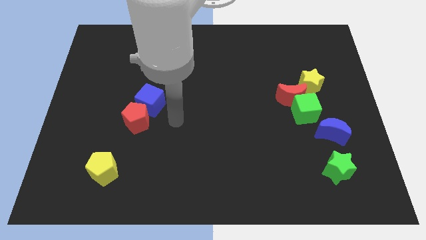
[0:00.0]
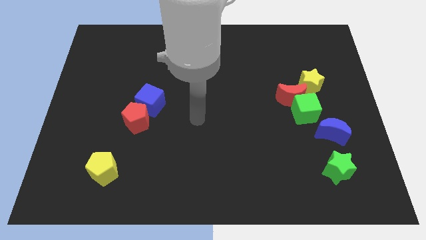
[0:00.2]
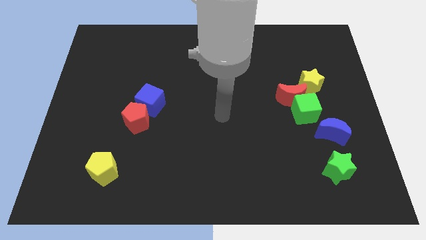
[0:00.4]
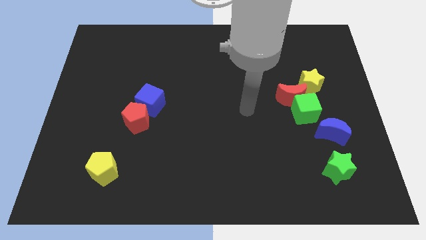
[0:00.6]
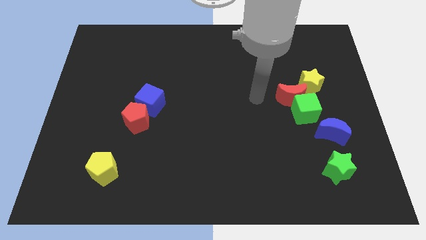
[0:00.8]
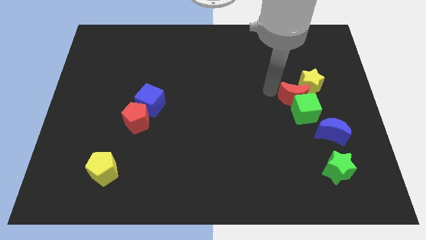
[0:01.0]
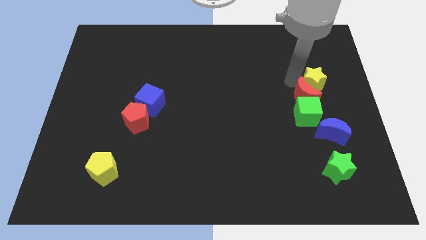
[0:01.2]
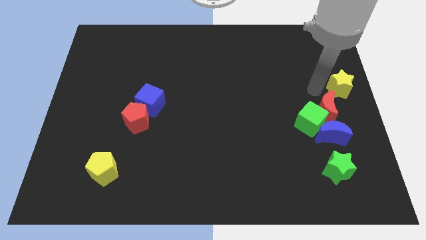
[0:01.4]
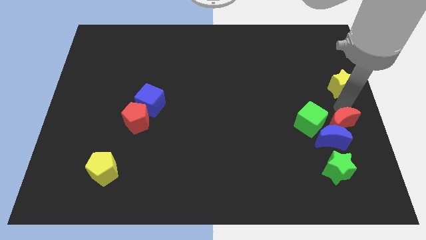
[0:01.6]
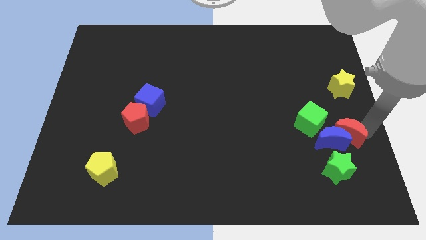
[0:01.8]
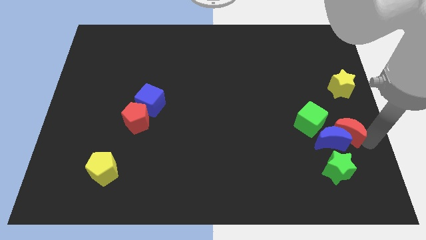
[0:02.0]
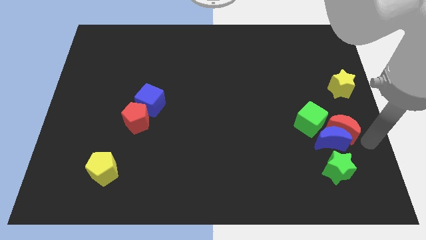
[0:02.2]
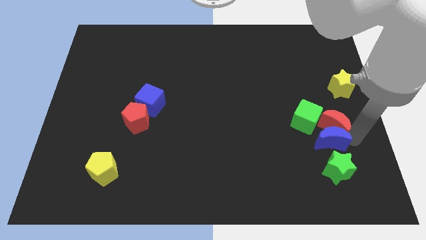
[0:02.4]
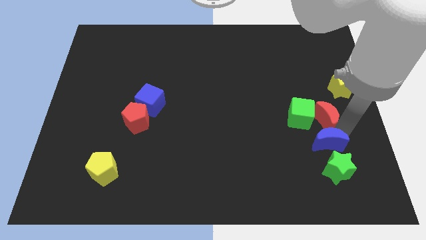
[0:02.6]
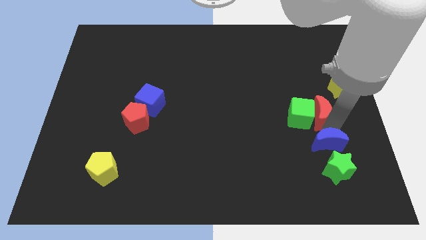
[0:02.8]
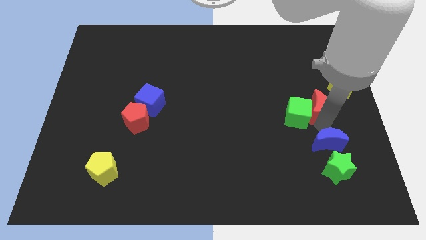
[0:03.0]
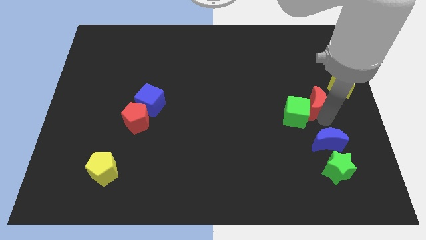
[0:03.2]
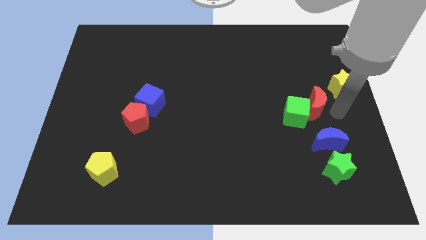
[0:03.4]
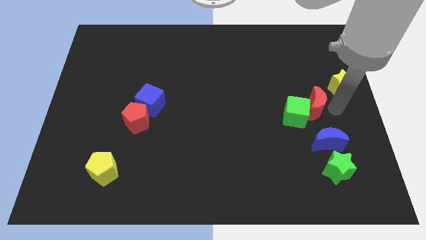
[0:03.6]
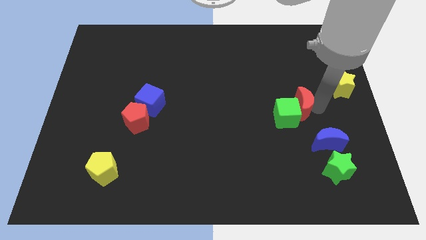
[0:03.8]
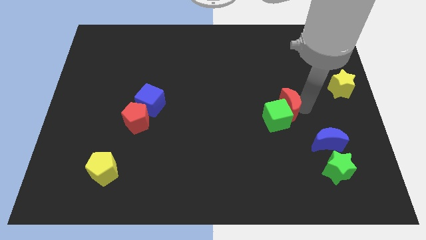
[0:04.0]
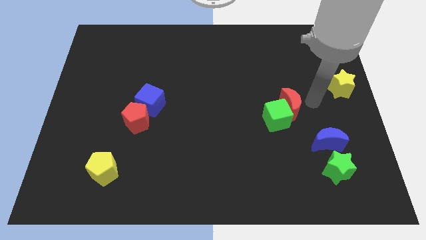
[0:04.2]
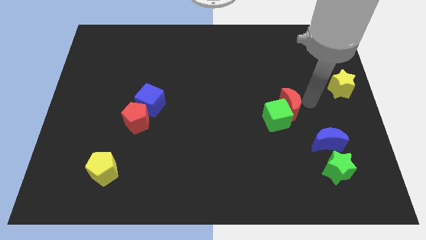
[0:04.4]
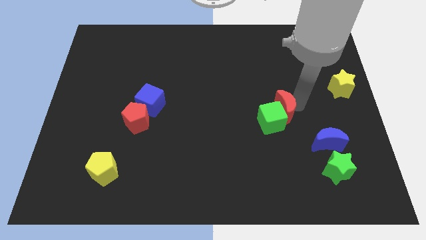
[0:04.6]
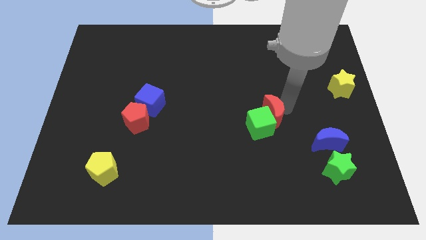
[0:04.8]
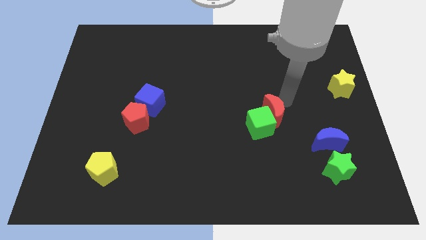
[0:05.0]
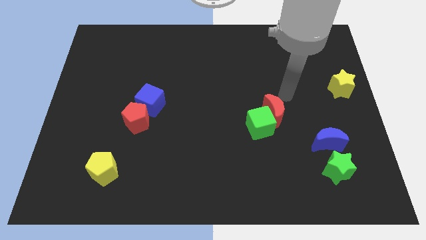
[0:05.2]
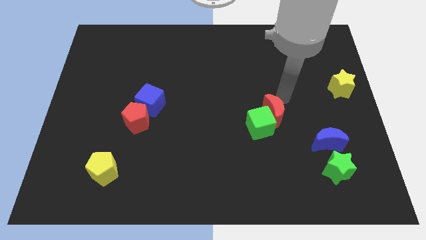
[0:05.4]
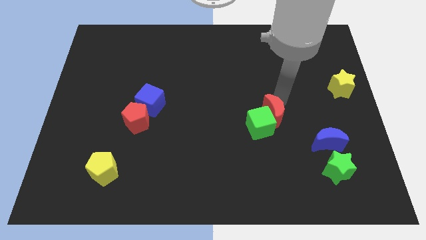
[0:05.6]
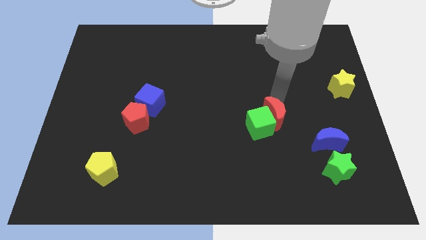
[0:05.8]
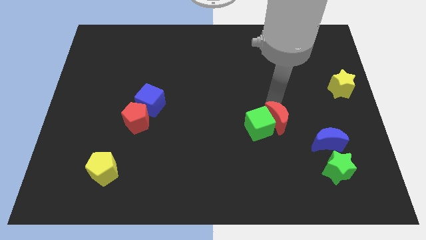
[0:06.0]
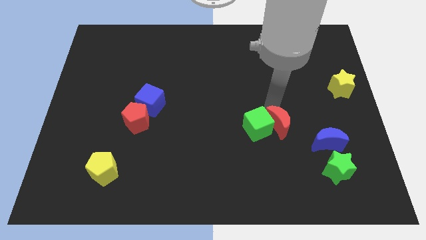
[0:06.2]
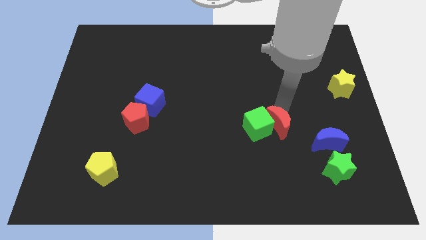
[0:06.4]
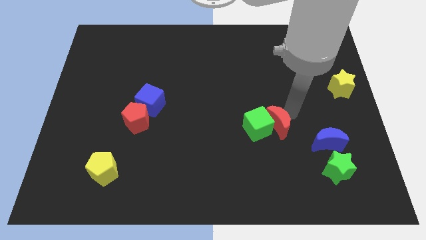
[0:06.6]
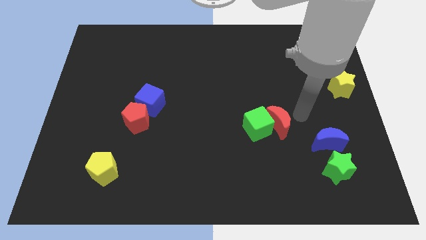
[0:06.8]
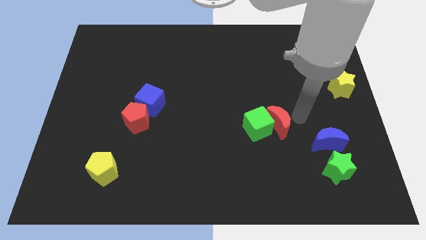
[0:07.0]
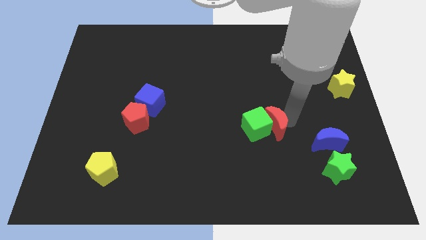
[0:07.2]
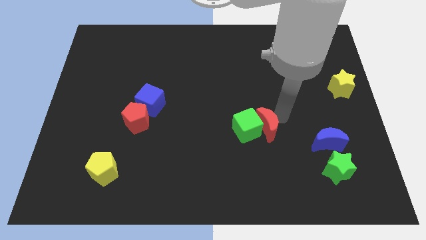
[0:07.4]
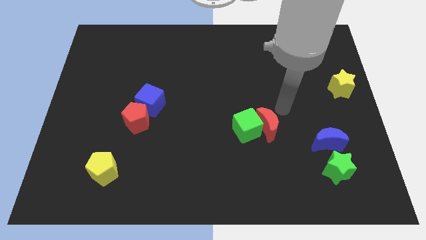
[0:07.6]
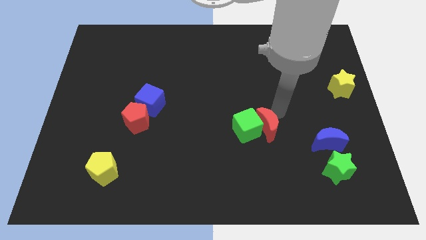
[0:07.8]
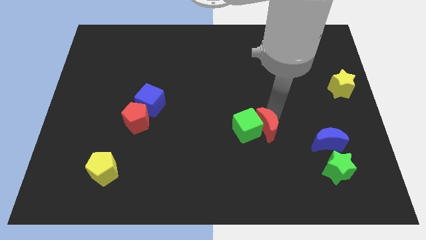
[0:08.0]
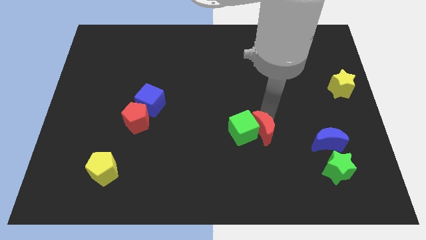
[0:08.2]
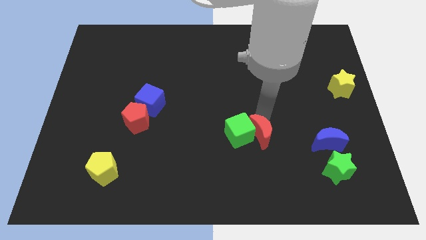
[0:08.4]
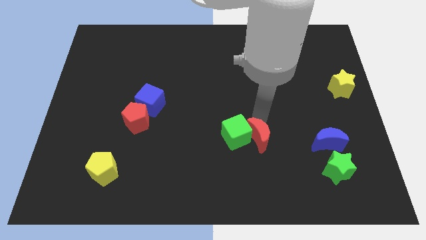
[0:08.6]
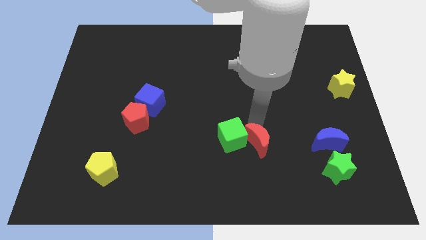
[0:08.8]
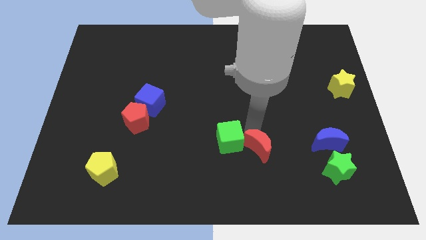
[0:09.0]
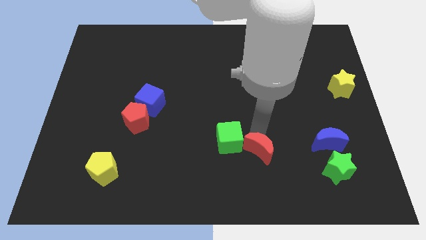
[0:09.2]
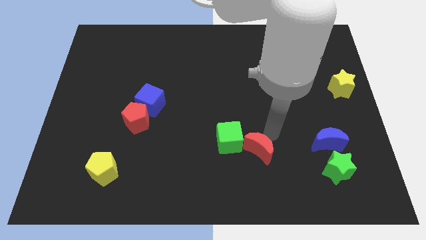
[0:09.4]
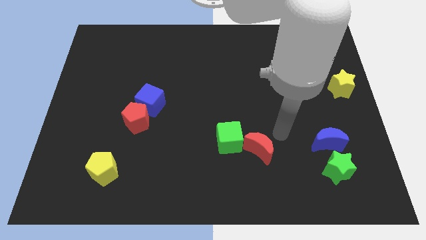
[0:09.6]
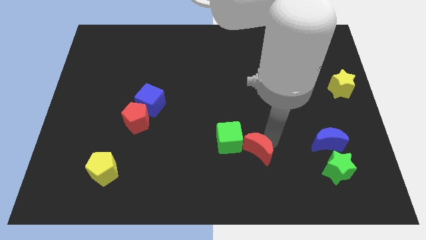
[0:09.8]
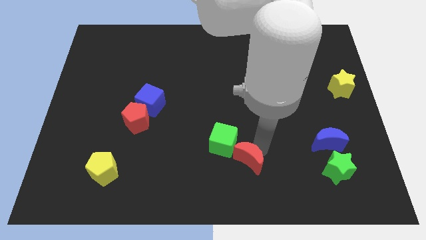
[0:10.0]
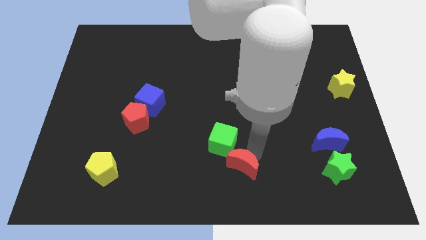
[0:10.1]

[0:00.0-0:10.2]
put the red moon to the bottom side

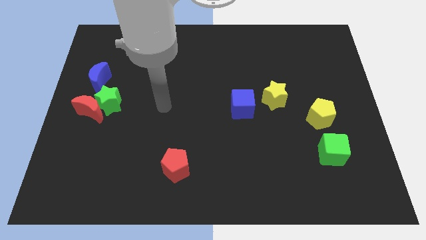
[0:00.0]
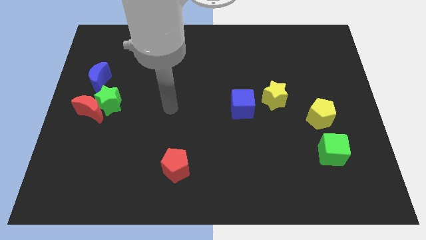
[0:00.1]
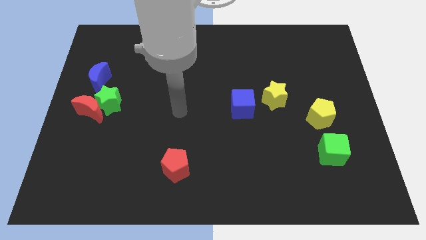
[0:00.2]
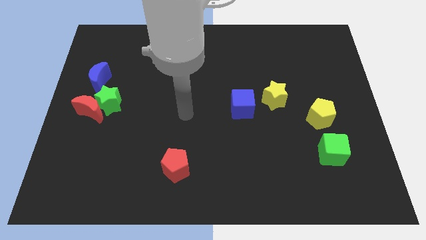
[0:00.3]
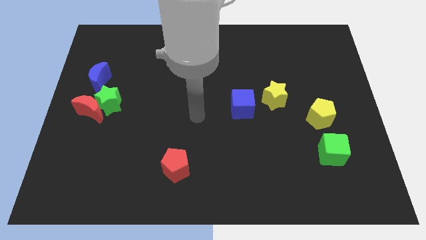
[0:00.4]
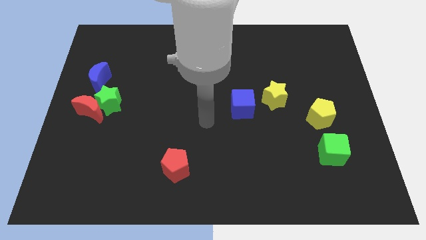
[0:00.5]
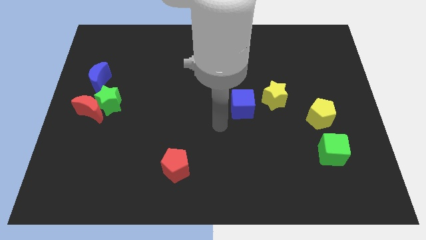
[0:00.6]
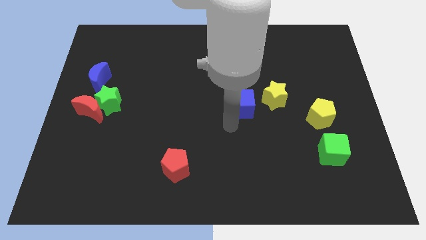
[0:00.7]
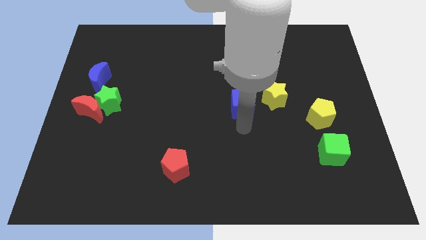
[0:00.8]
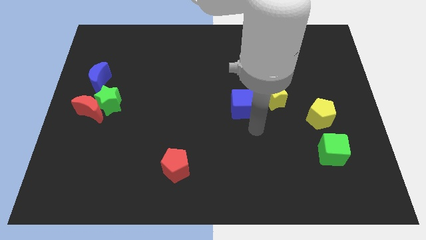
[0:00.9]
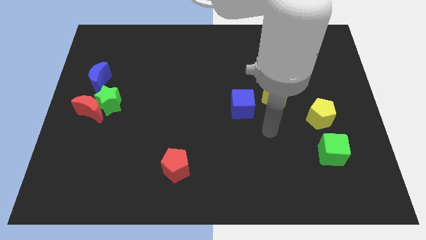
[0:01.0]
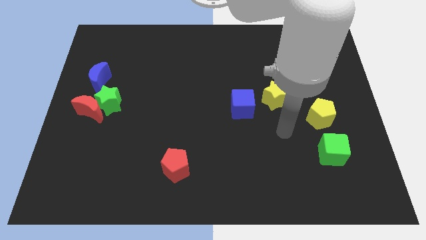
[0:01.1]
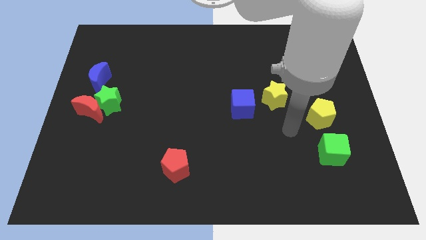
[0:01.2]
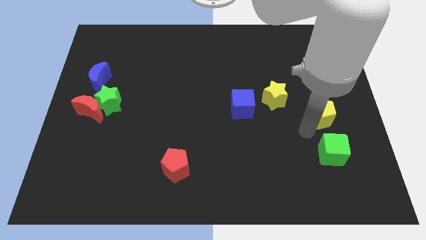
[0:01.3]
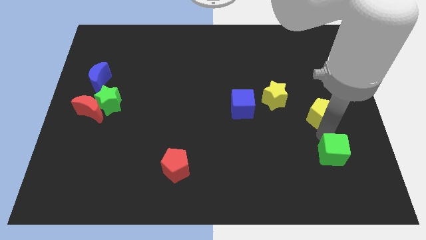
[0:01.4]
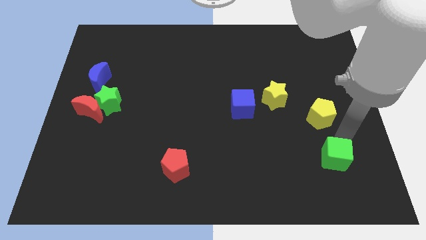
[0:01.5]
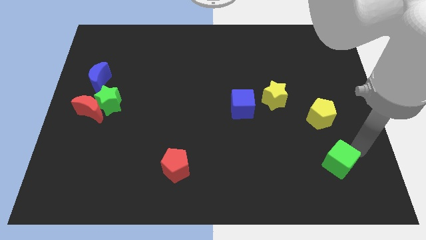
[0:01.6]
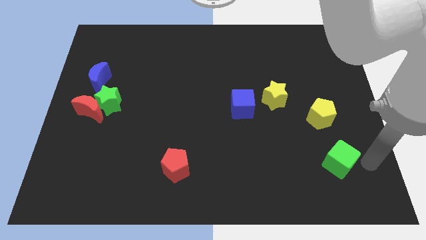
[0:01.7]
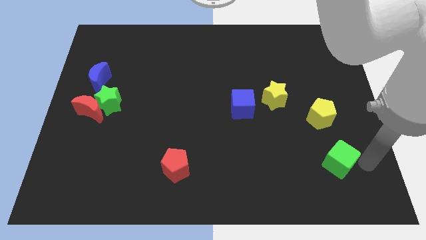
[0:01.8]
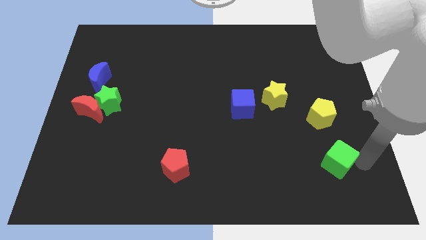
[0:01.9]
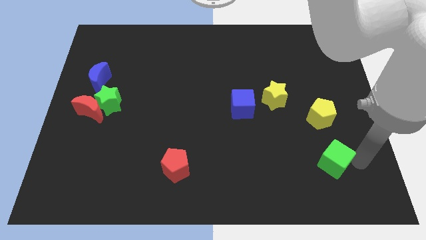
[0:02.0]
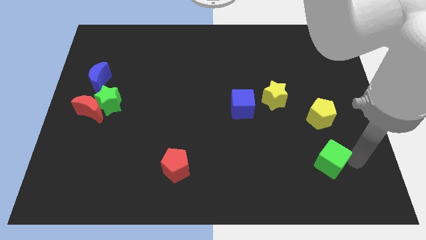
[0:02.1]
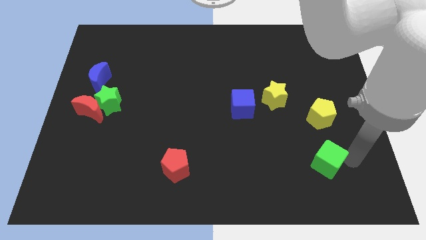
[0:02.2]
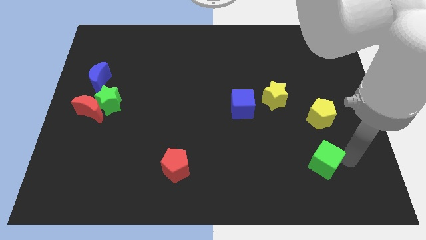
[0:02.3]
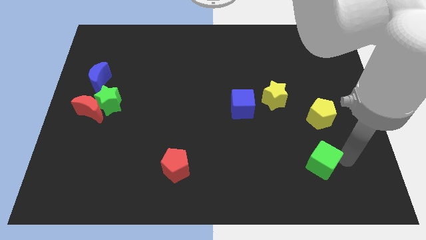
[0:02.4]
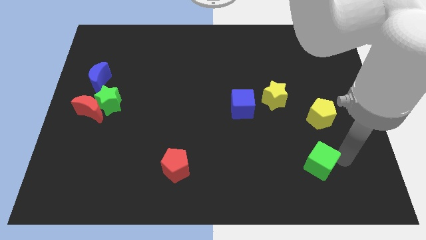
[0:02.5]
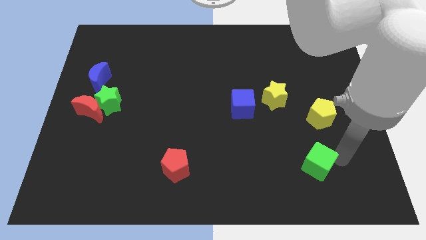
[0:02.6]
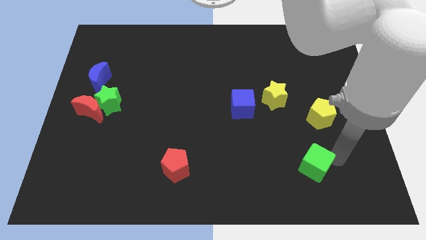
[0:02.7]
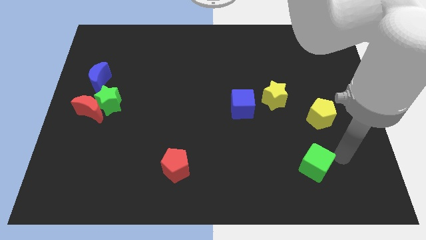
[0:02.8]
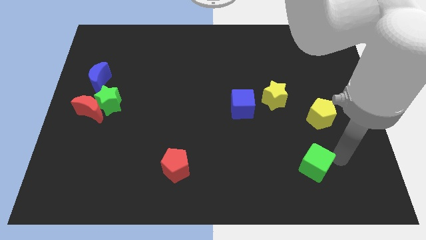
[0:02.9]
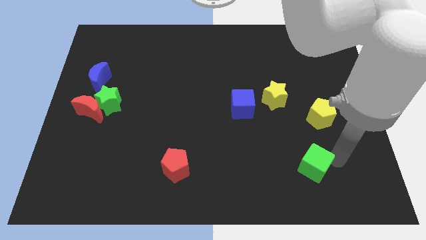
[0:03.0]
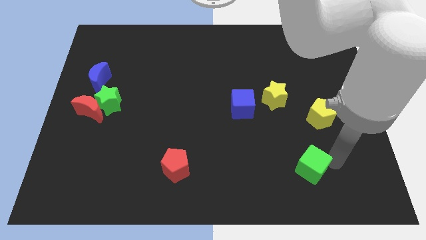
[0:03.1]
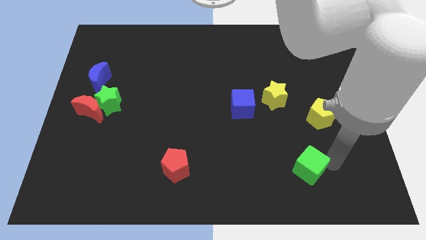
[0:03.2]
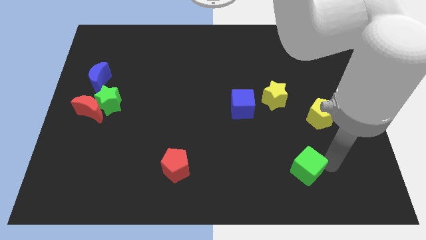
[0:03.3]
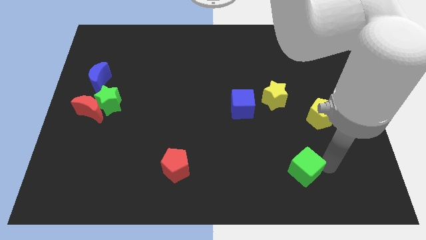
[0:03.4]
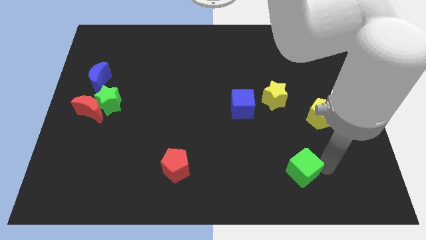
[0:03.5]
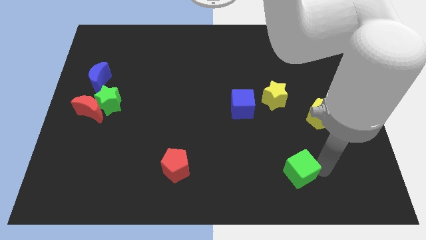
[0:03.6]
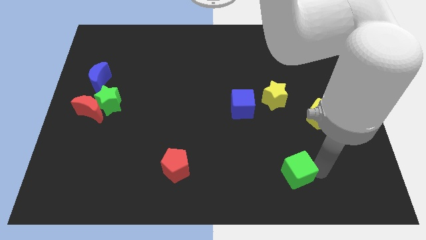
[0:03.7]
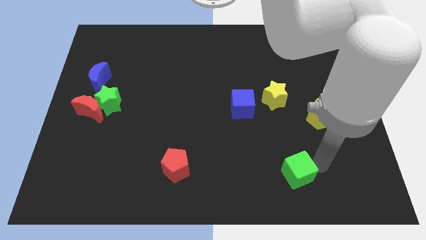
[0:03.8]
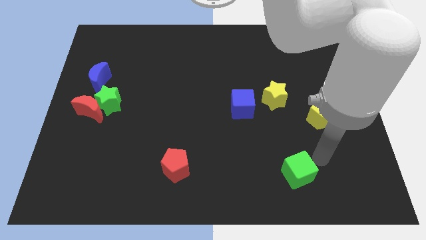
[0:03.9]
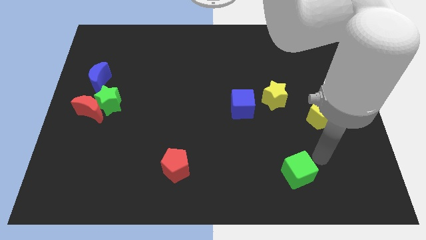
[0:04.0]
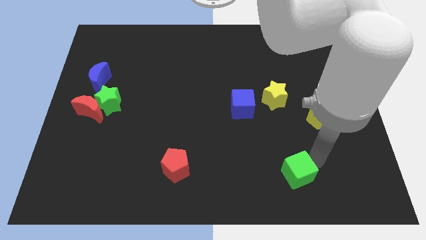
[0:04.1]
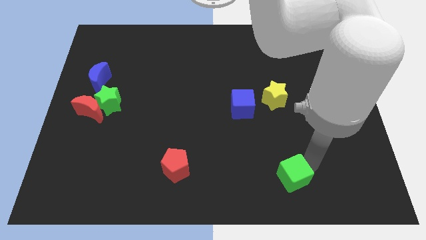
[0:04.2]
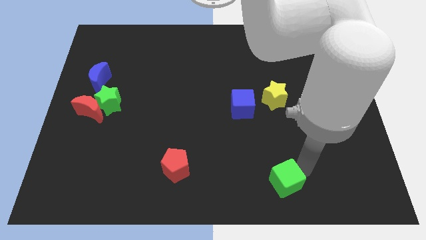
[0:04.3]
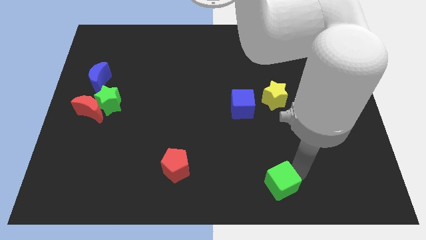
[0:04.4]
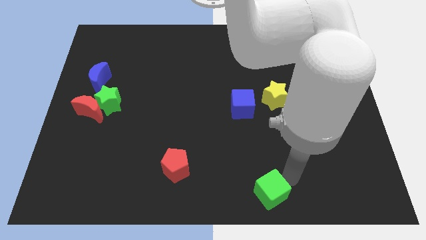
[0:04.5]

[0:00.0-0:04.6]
slide the green cube to the bottom side
